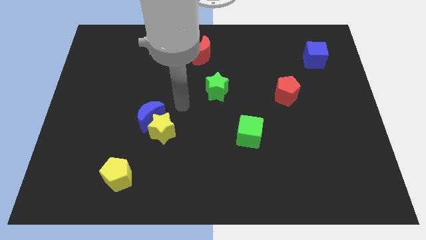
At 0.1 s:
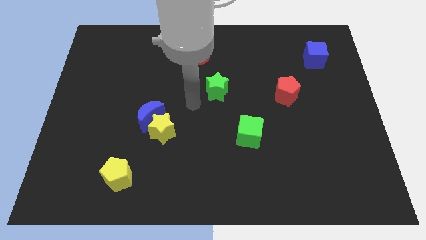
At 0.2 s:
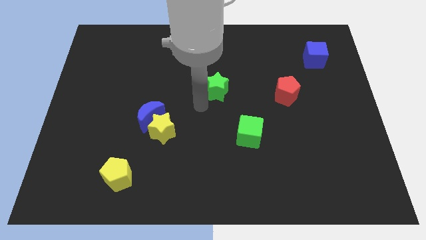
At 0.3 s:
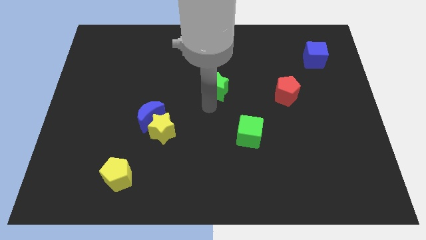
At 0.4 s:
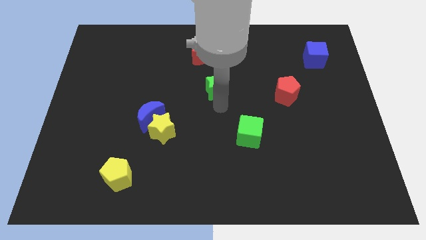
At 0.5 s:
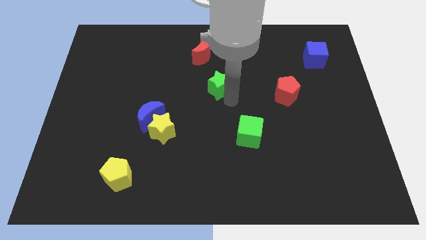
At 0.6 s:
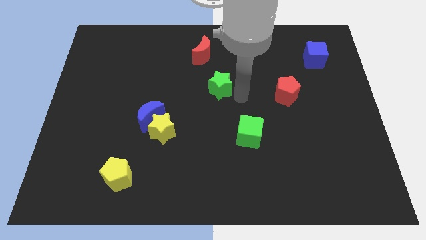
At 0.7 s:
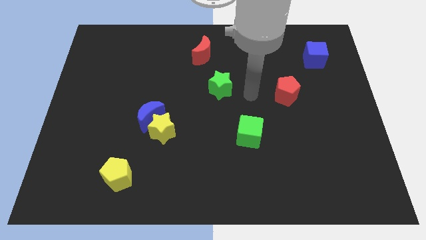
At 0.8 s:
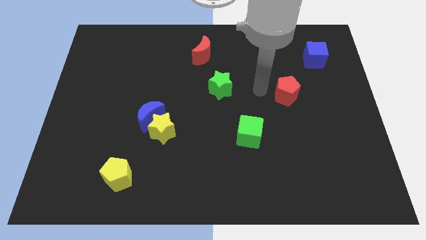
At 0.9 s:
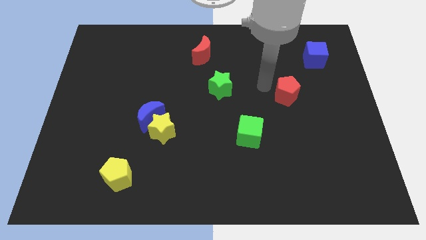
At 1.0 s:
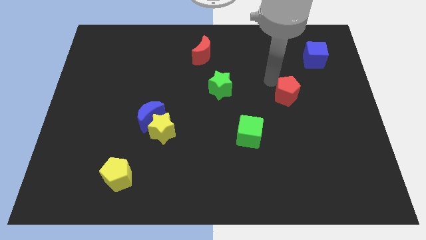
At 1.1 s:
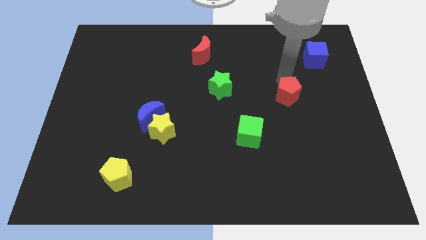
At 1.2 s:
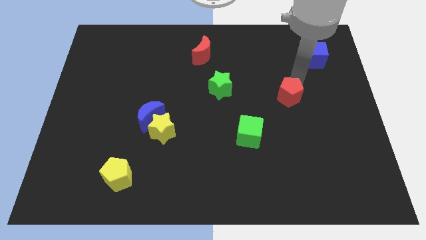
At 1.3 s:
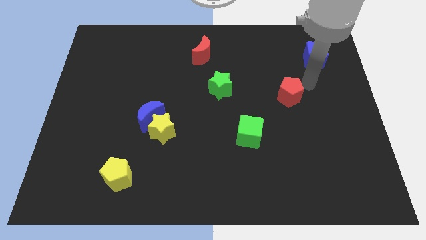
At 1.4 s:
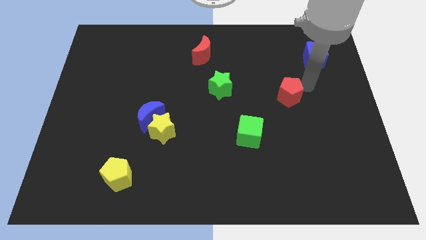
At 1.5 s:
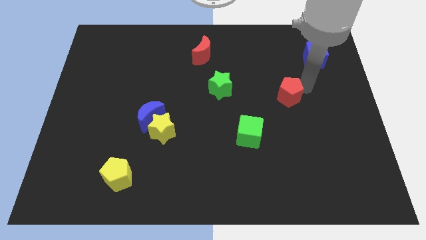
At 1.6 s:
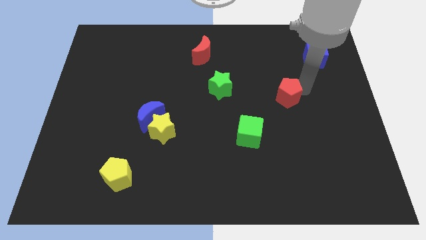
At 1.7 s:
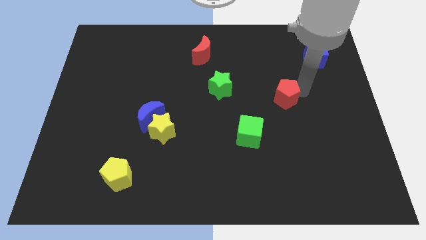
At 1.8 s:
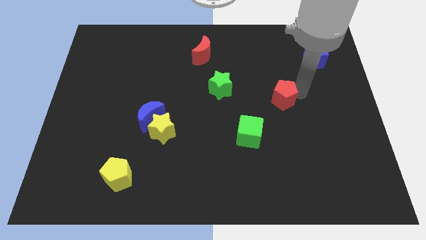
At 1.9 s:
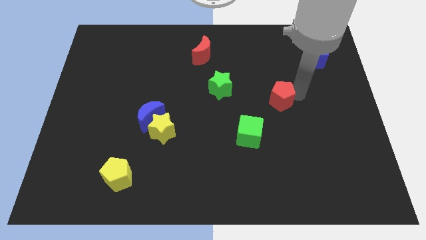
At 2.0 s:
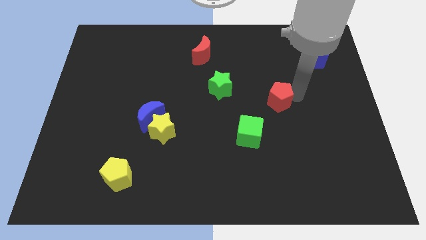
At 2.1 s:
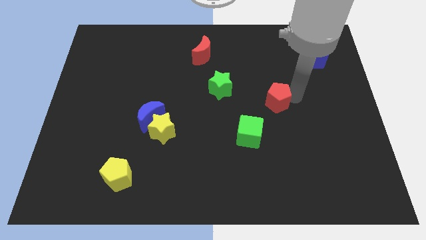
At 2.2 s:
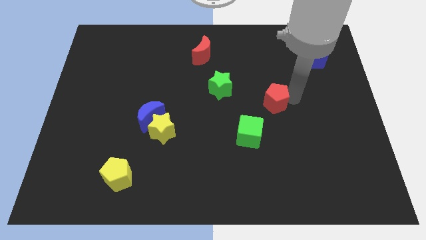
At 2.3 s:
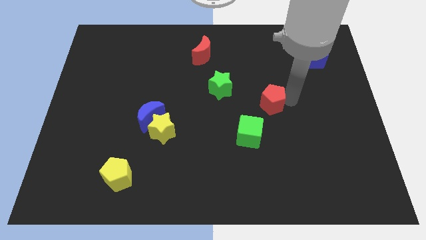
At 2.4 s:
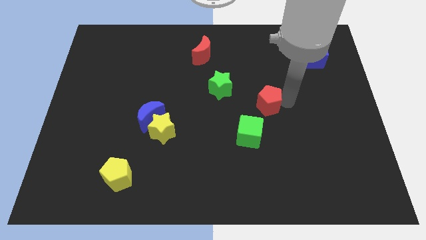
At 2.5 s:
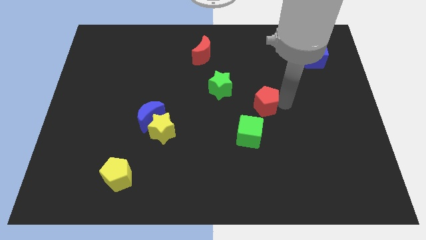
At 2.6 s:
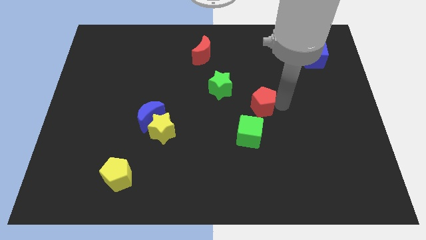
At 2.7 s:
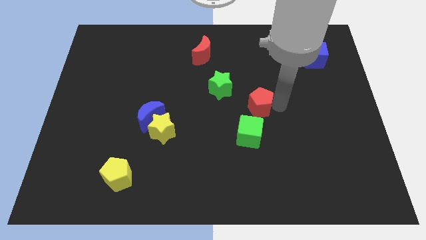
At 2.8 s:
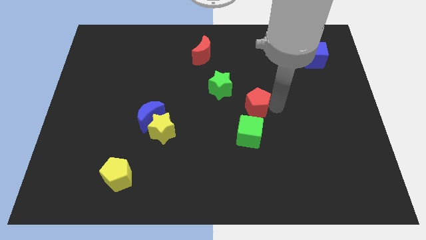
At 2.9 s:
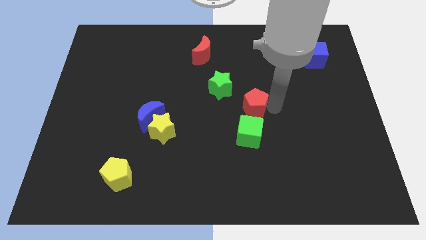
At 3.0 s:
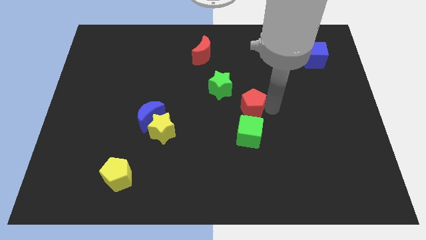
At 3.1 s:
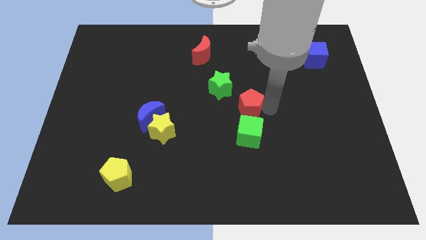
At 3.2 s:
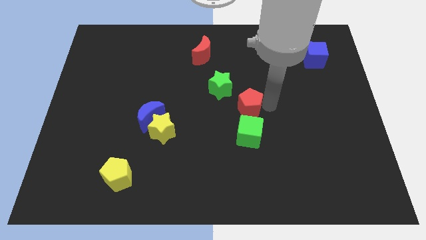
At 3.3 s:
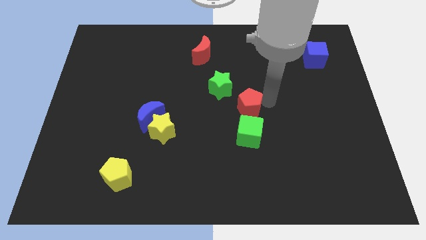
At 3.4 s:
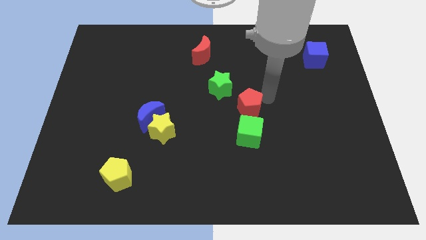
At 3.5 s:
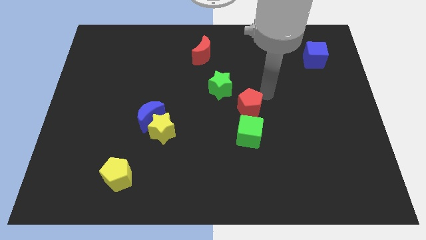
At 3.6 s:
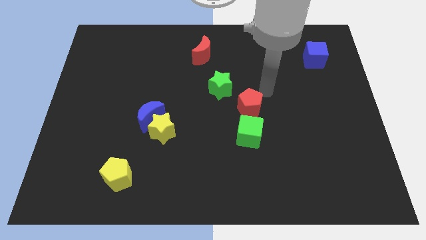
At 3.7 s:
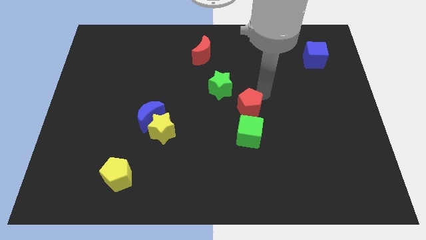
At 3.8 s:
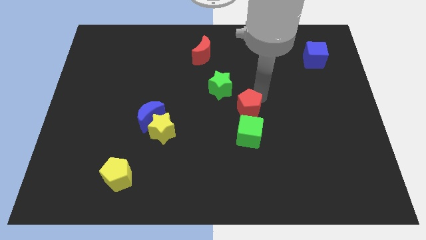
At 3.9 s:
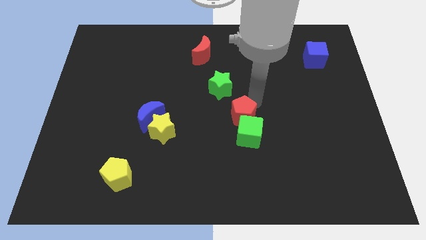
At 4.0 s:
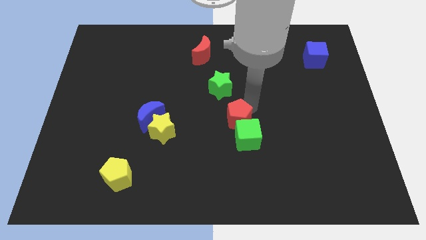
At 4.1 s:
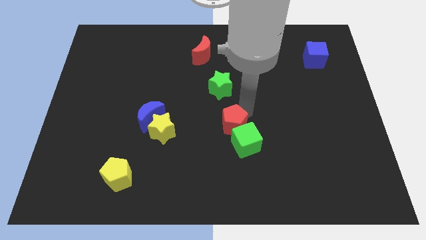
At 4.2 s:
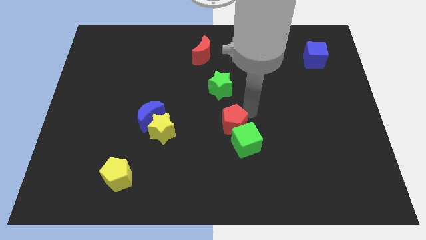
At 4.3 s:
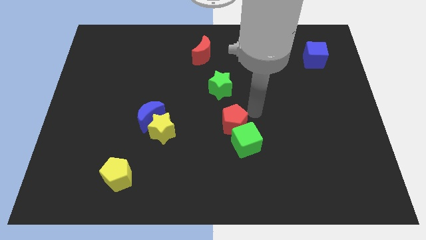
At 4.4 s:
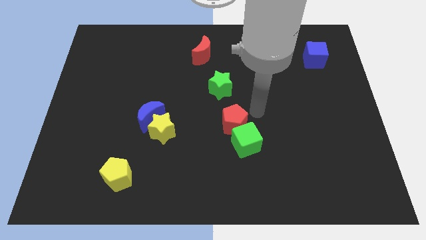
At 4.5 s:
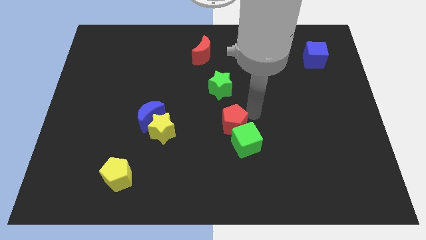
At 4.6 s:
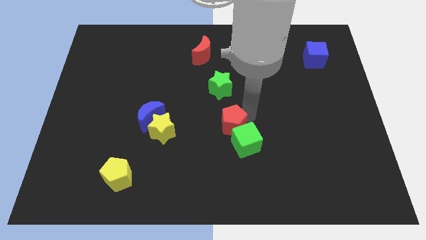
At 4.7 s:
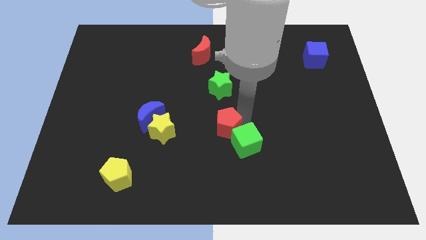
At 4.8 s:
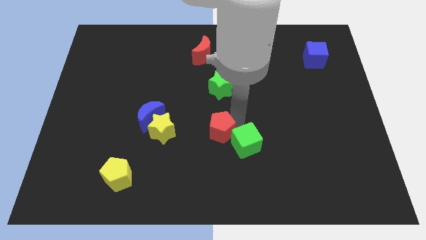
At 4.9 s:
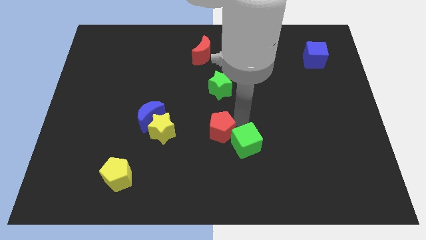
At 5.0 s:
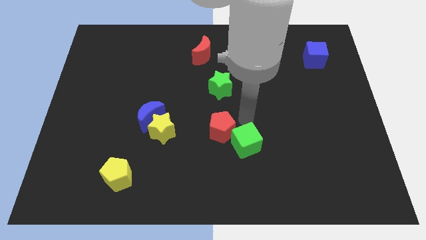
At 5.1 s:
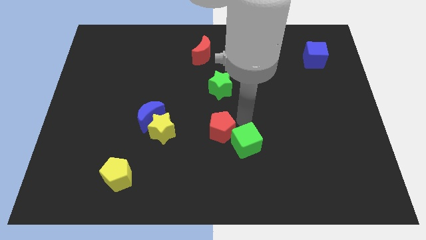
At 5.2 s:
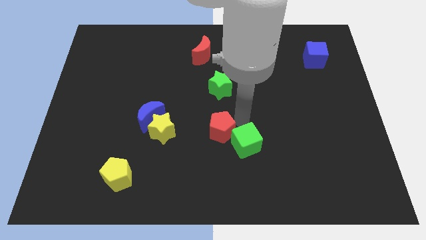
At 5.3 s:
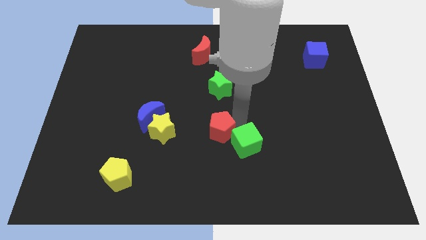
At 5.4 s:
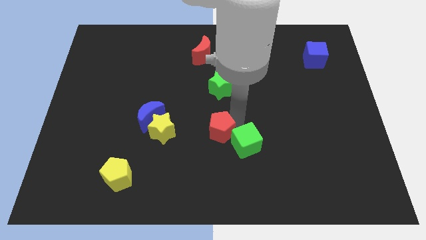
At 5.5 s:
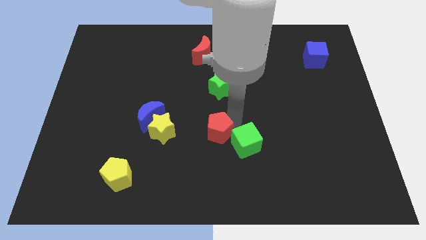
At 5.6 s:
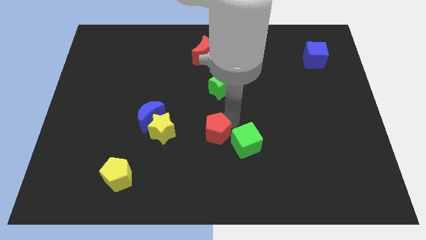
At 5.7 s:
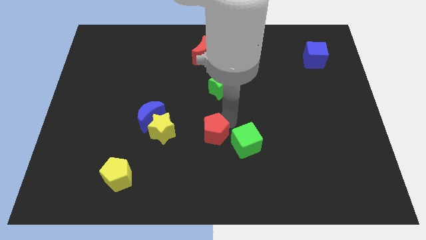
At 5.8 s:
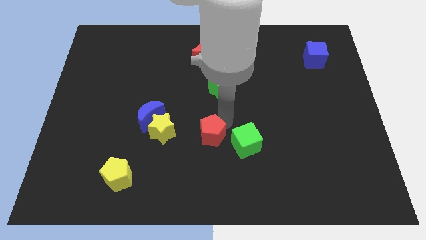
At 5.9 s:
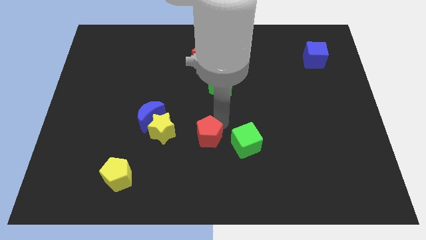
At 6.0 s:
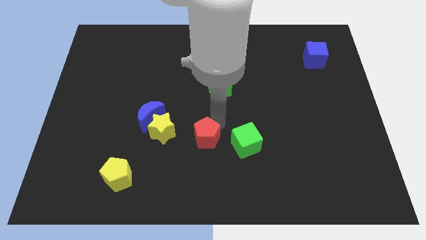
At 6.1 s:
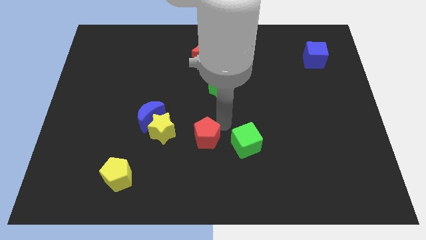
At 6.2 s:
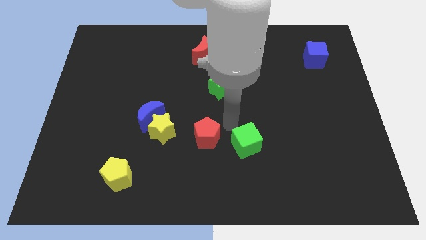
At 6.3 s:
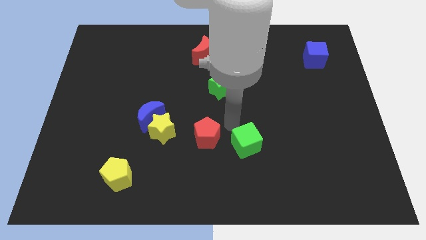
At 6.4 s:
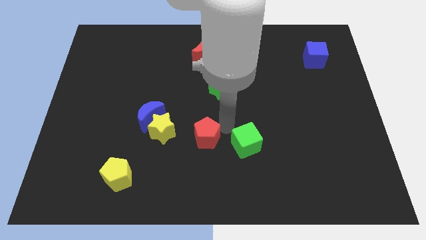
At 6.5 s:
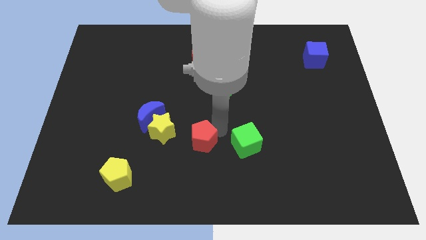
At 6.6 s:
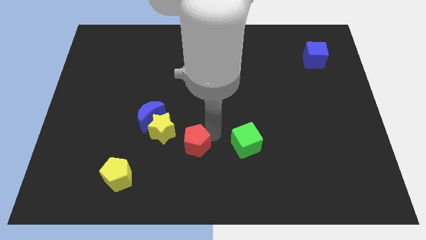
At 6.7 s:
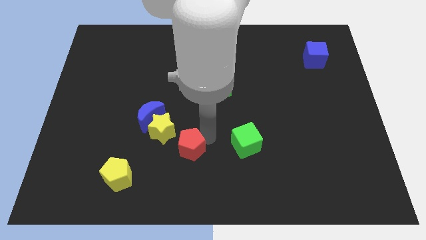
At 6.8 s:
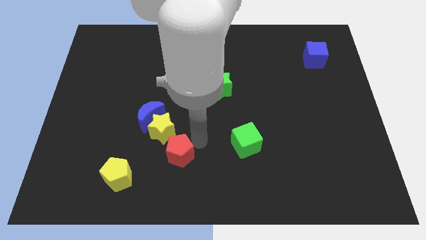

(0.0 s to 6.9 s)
move the red pentagon below the yellow star

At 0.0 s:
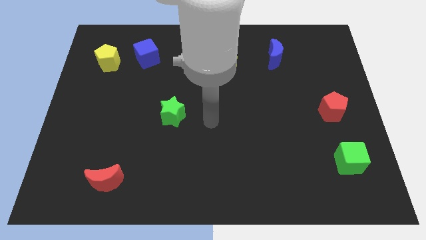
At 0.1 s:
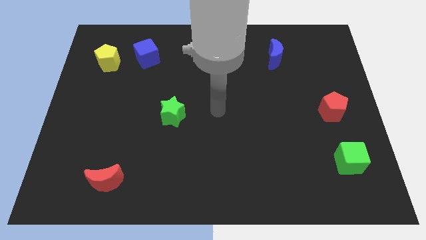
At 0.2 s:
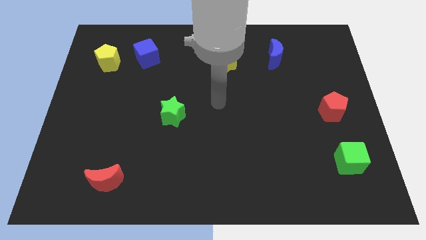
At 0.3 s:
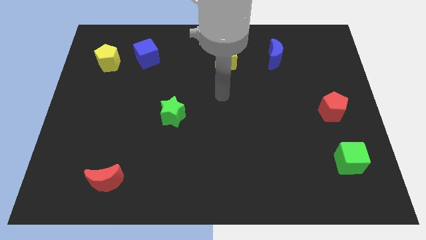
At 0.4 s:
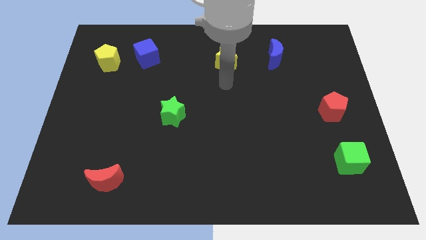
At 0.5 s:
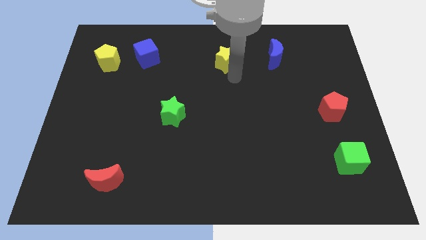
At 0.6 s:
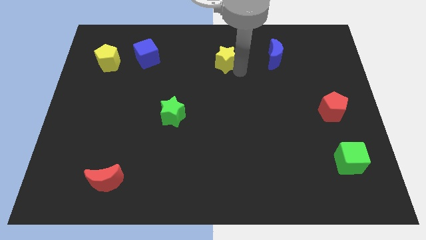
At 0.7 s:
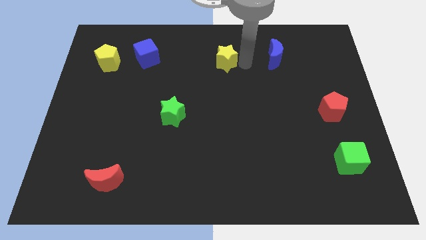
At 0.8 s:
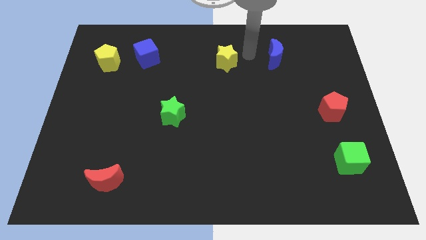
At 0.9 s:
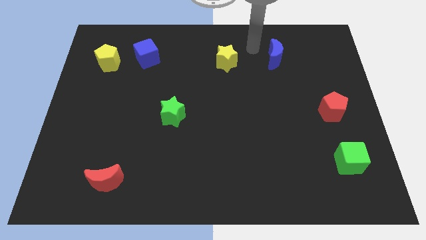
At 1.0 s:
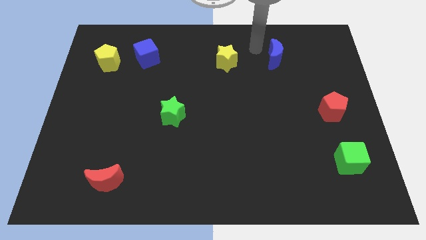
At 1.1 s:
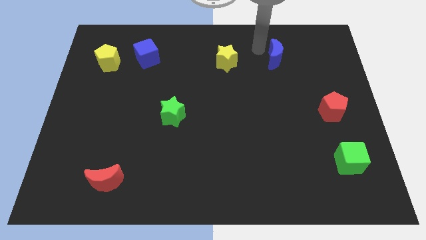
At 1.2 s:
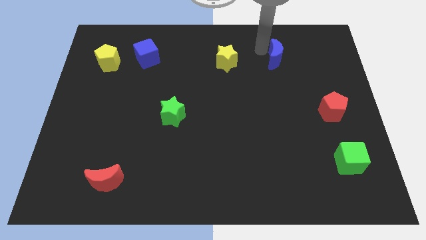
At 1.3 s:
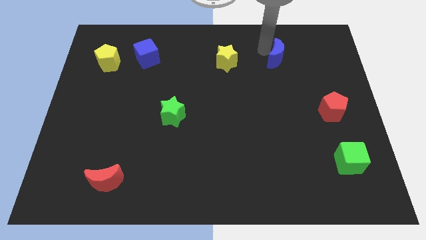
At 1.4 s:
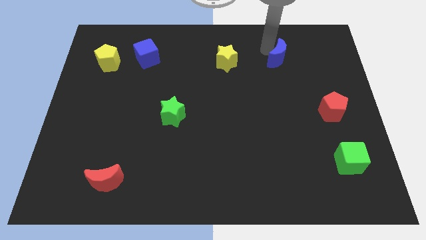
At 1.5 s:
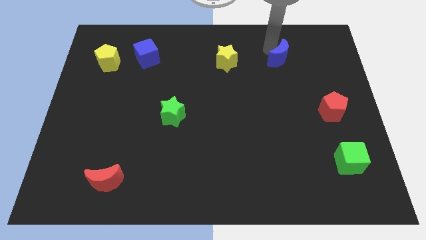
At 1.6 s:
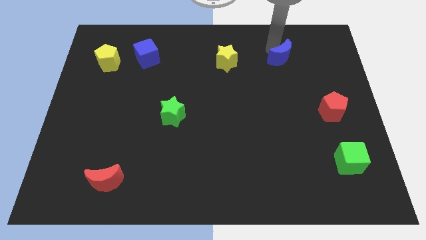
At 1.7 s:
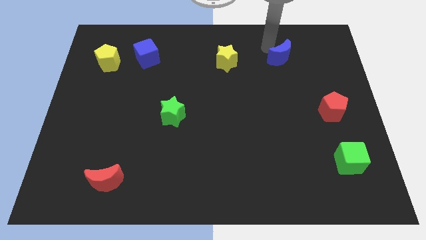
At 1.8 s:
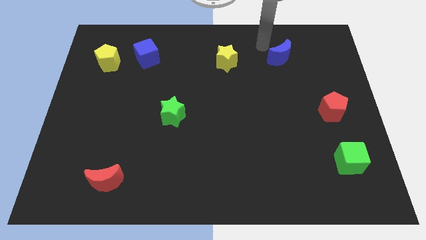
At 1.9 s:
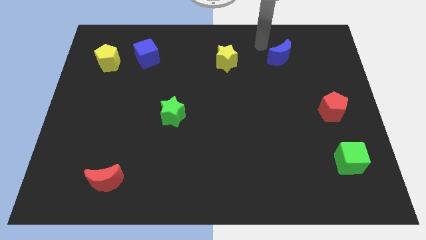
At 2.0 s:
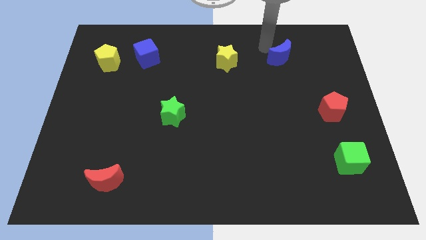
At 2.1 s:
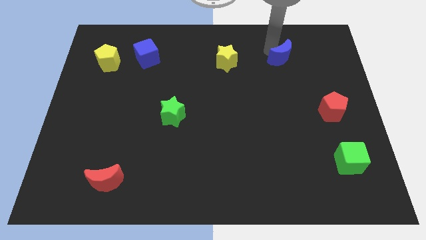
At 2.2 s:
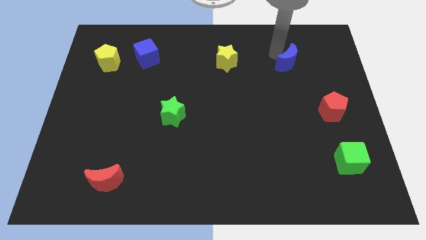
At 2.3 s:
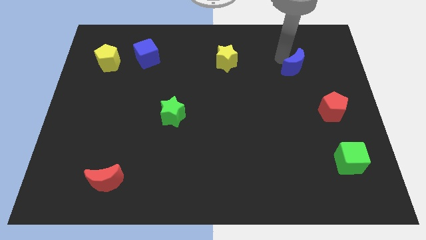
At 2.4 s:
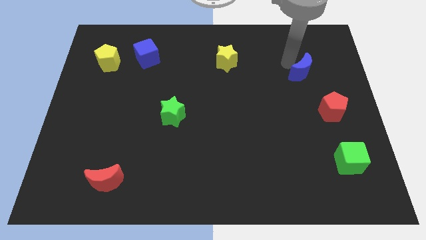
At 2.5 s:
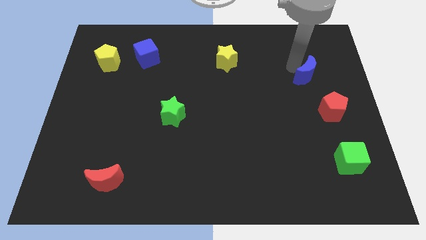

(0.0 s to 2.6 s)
push the blue moon to the top of the red pentagon
